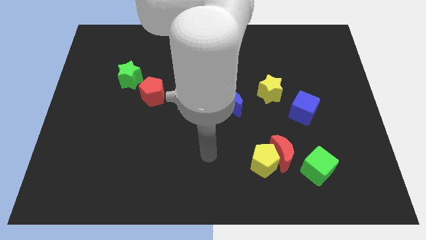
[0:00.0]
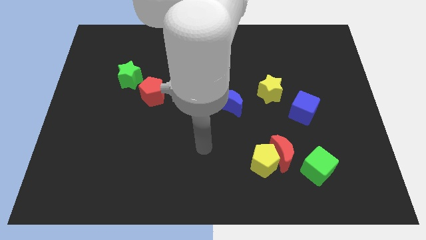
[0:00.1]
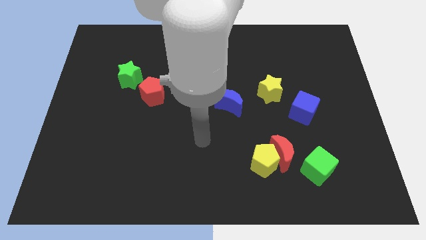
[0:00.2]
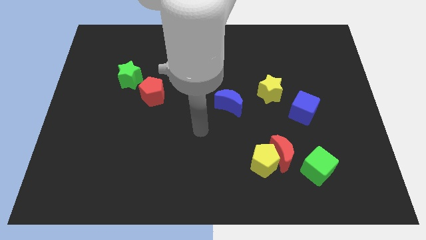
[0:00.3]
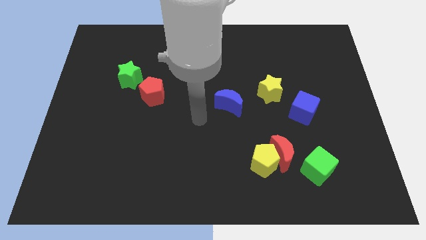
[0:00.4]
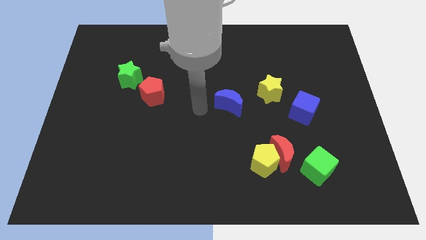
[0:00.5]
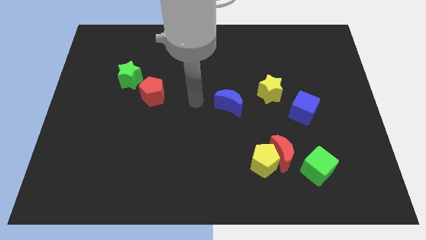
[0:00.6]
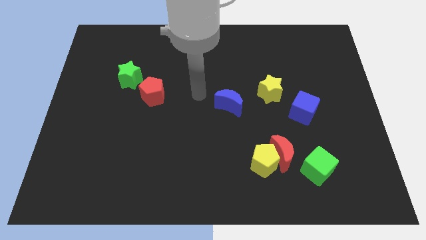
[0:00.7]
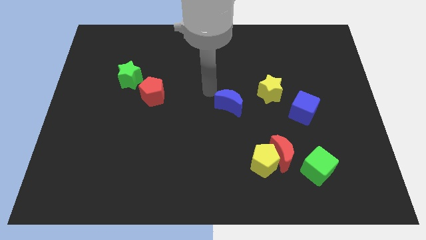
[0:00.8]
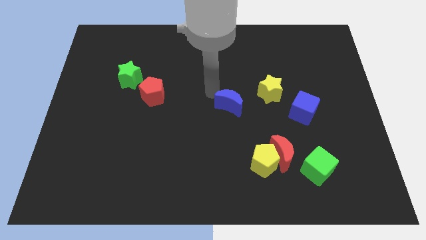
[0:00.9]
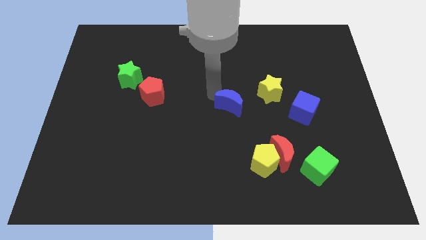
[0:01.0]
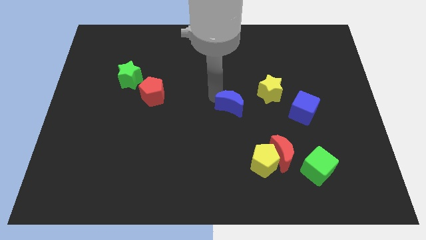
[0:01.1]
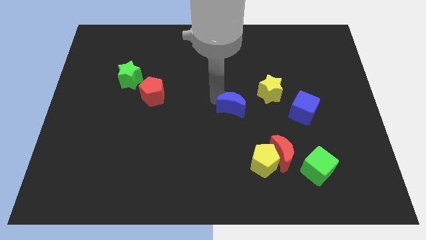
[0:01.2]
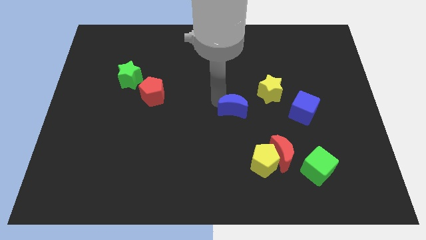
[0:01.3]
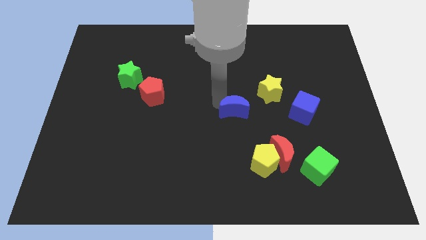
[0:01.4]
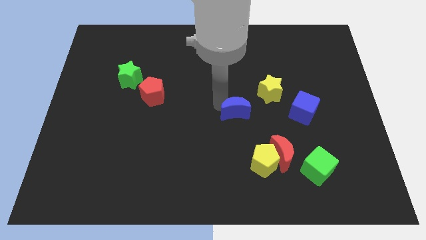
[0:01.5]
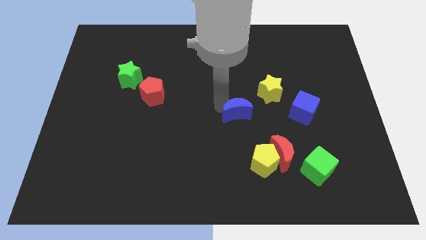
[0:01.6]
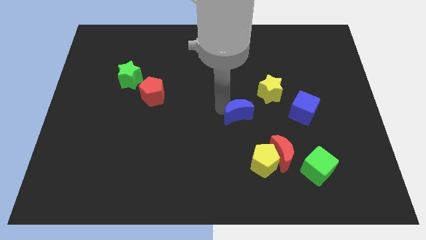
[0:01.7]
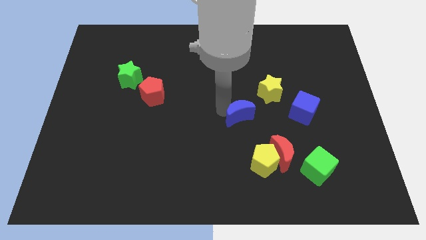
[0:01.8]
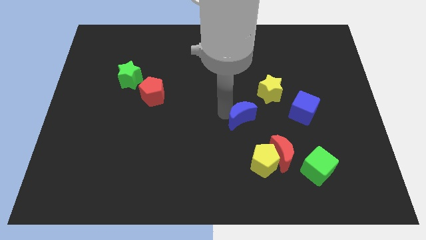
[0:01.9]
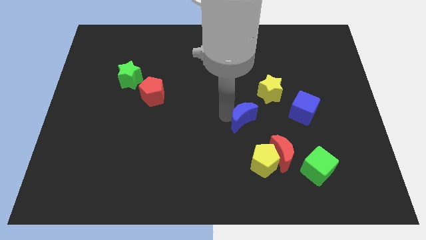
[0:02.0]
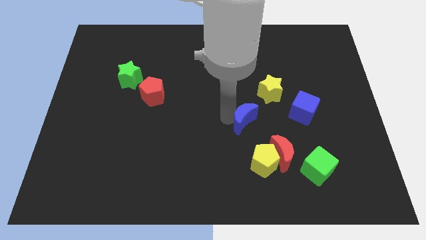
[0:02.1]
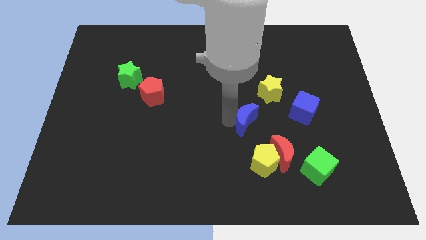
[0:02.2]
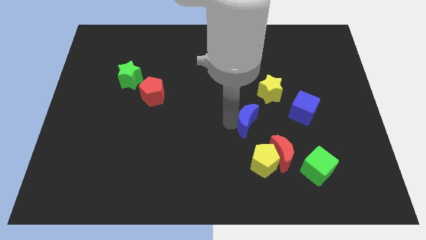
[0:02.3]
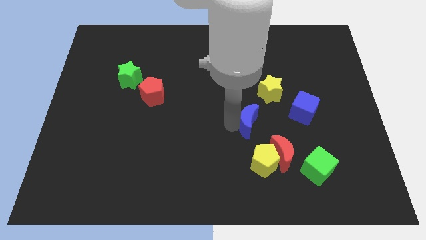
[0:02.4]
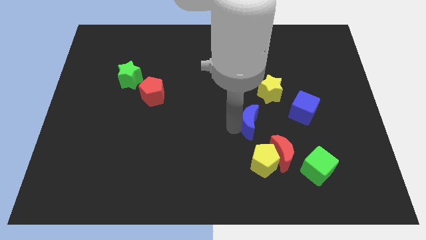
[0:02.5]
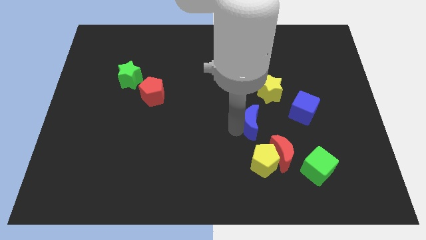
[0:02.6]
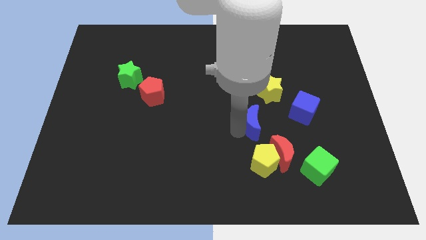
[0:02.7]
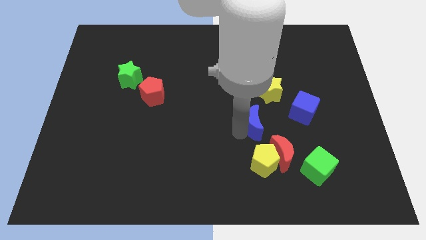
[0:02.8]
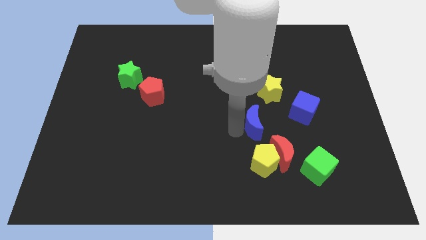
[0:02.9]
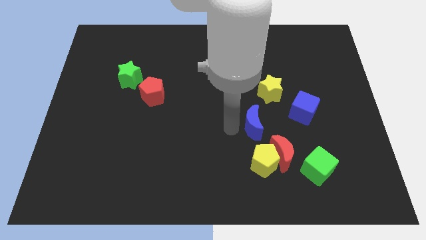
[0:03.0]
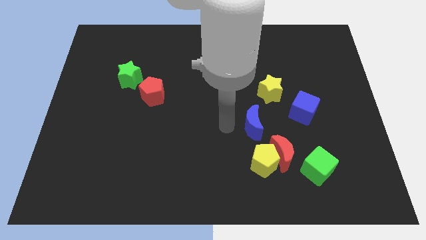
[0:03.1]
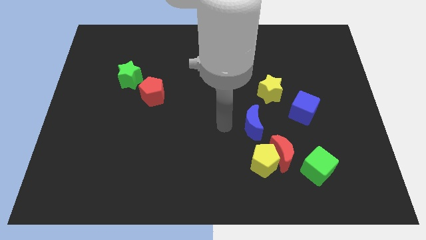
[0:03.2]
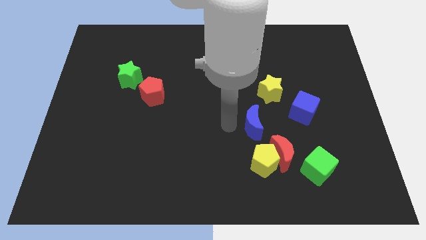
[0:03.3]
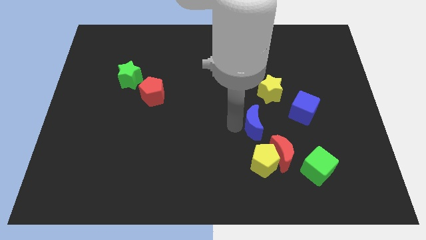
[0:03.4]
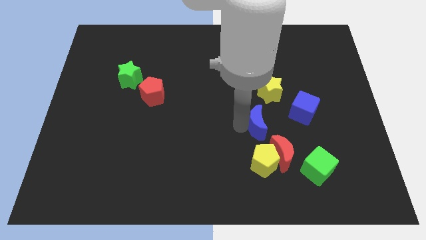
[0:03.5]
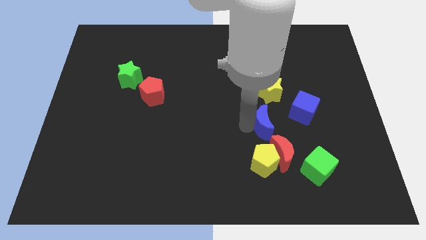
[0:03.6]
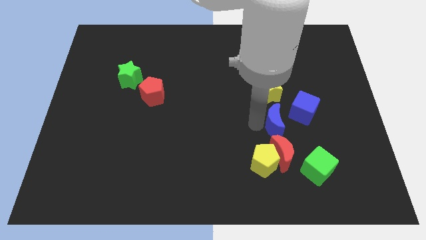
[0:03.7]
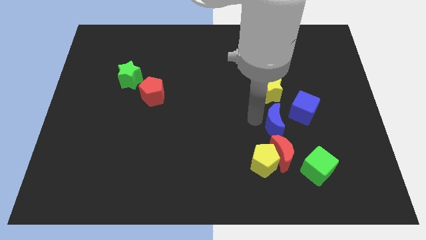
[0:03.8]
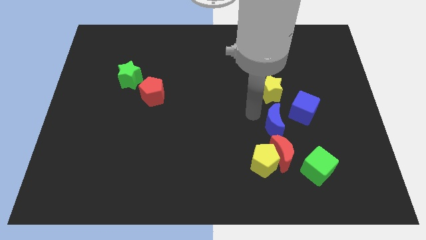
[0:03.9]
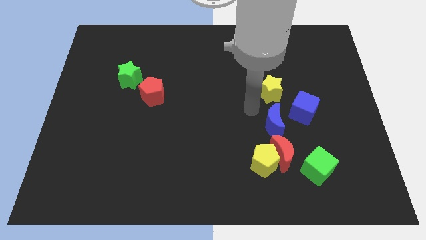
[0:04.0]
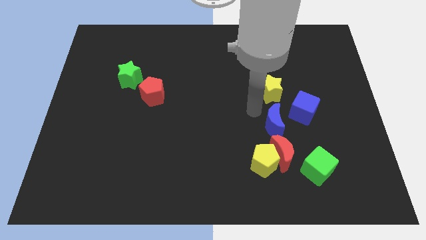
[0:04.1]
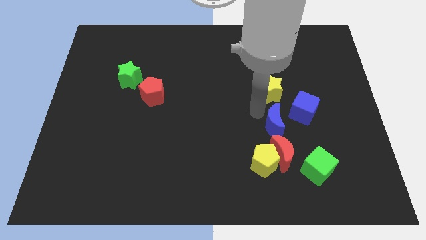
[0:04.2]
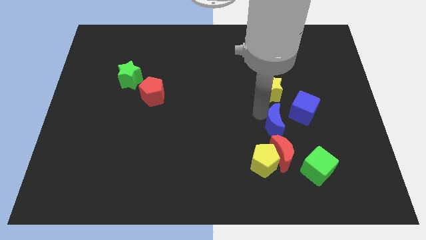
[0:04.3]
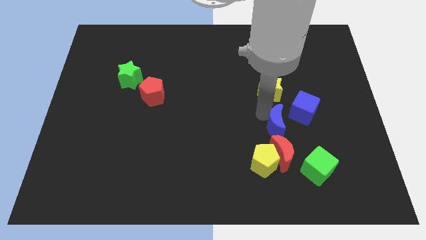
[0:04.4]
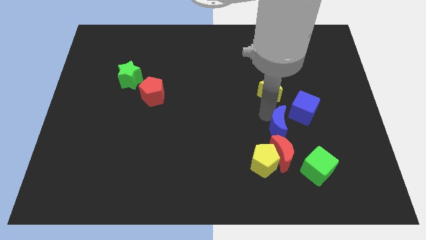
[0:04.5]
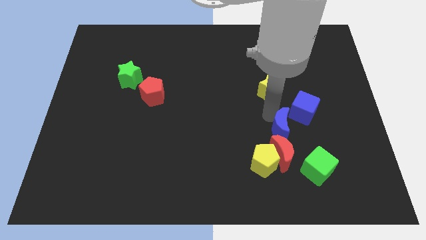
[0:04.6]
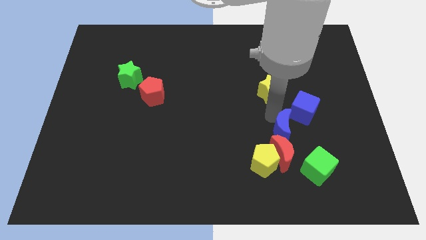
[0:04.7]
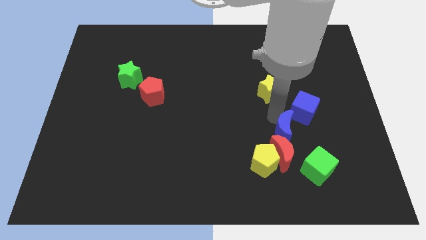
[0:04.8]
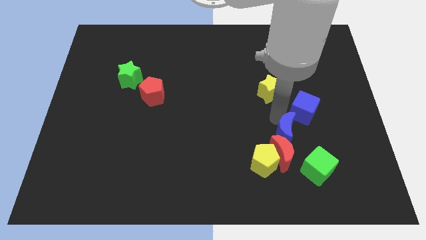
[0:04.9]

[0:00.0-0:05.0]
put the blue moon to the bottom of the blue cube

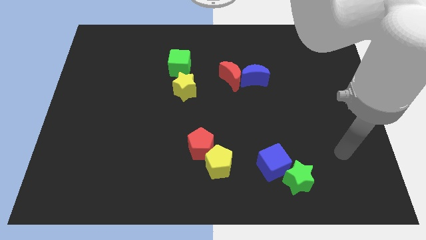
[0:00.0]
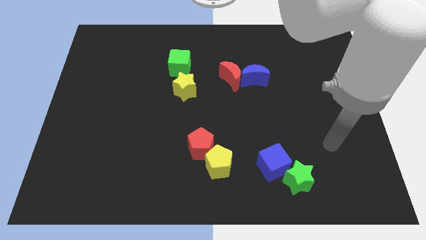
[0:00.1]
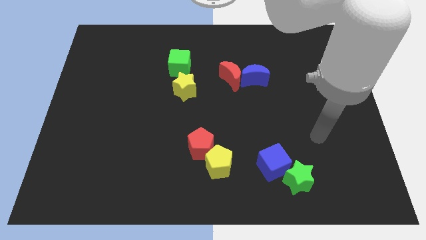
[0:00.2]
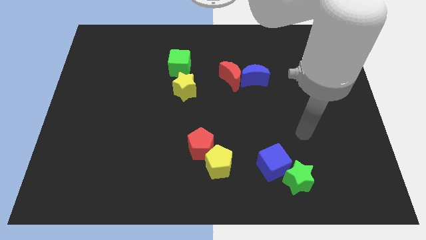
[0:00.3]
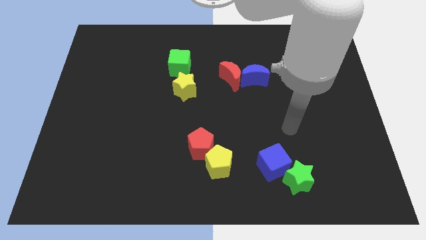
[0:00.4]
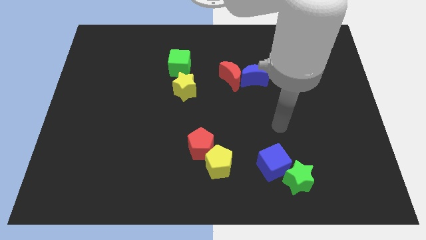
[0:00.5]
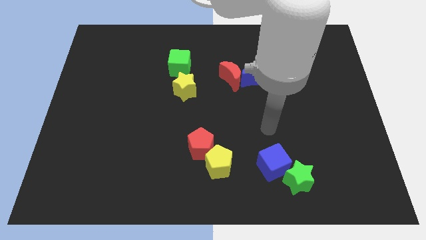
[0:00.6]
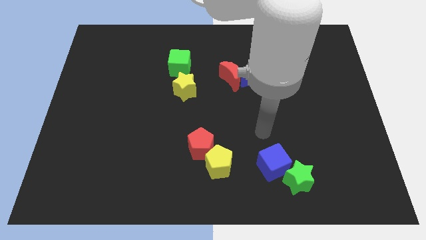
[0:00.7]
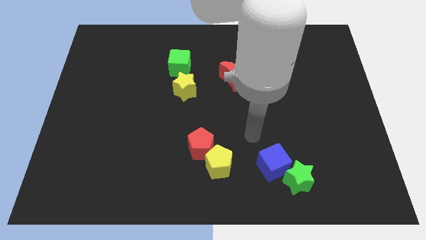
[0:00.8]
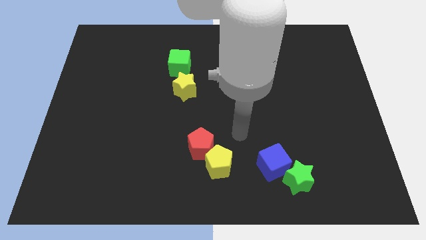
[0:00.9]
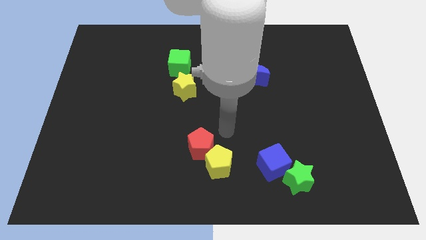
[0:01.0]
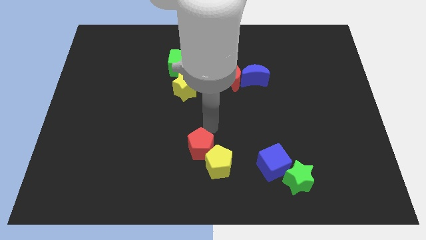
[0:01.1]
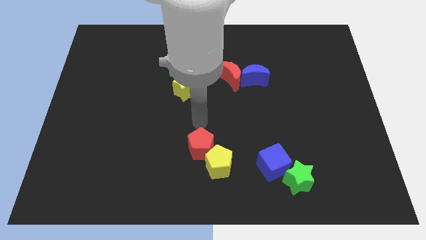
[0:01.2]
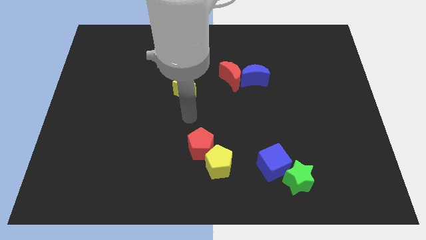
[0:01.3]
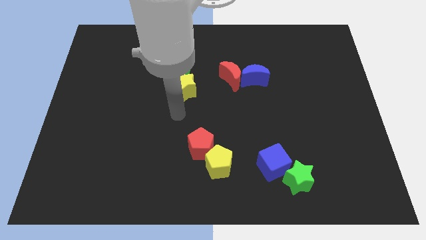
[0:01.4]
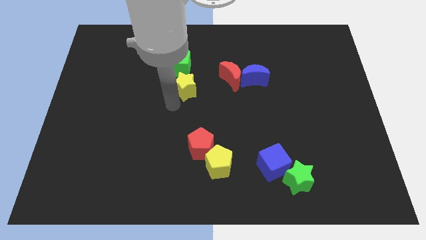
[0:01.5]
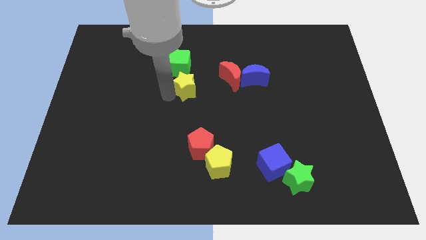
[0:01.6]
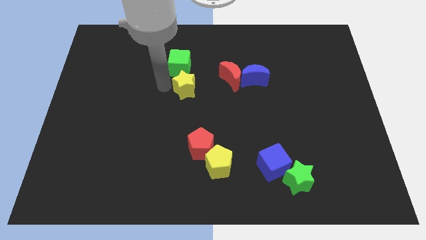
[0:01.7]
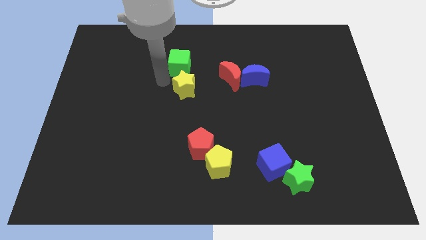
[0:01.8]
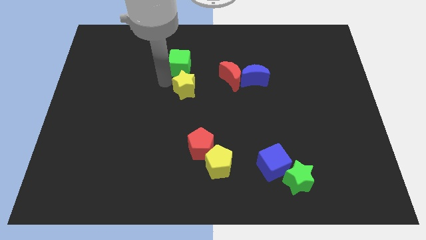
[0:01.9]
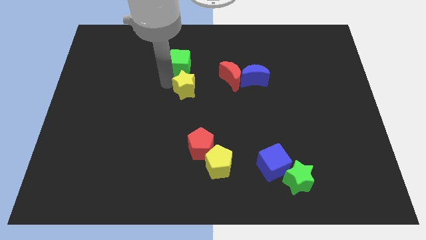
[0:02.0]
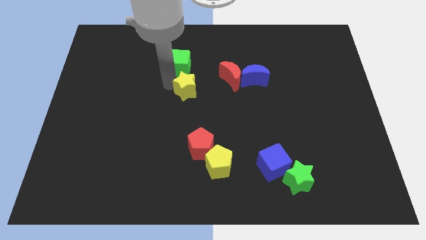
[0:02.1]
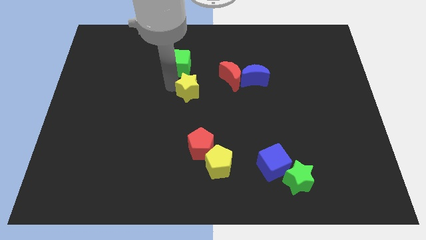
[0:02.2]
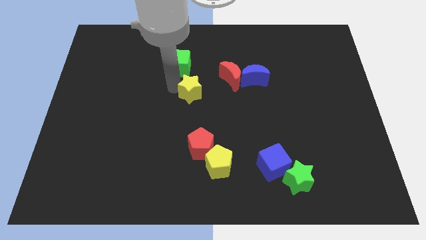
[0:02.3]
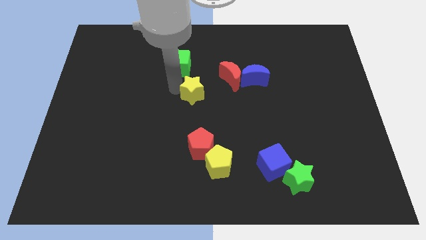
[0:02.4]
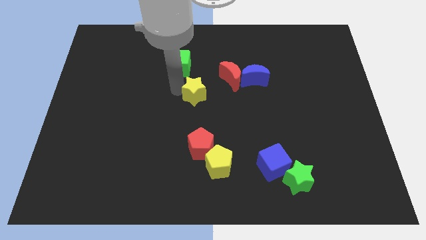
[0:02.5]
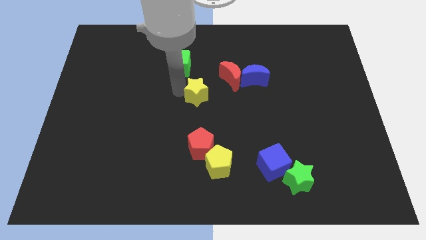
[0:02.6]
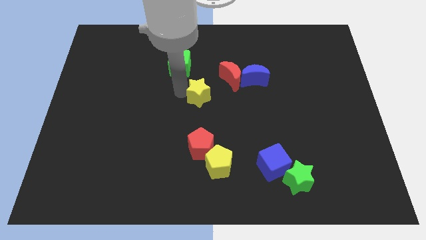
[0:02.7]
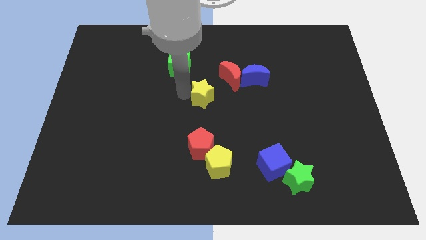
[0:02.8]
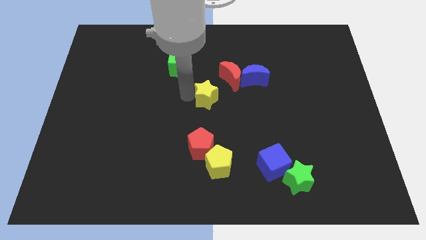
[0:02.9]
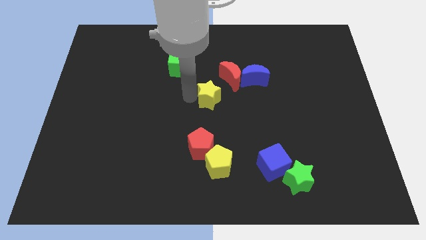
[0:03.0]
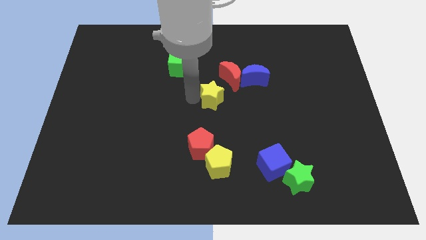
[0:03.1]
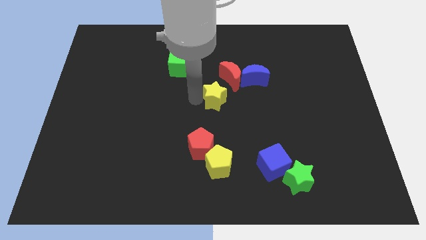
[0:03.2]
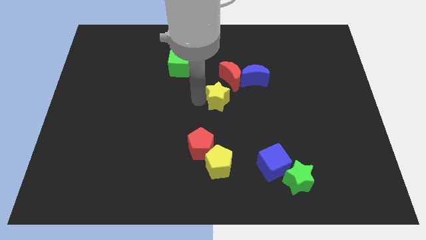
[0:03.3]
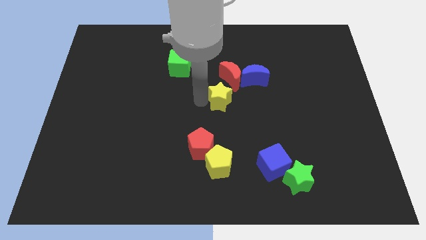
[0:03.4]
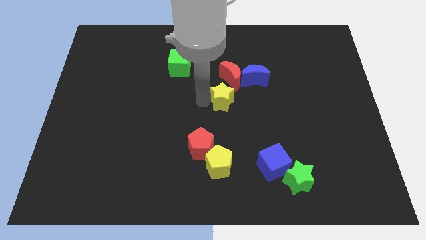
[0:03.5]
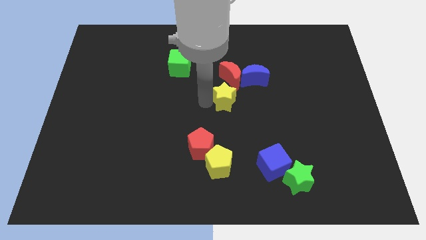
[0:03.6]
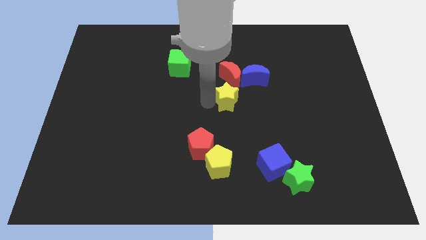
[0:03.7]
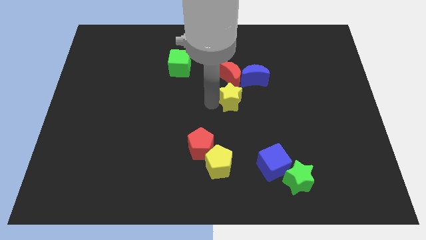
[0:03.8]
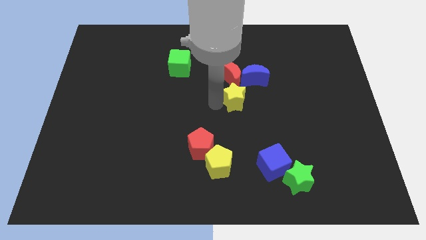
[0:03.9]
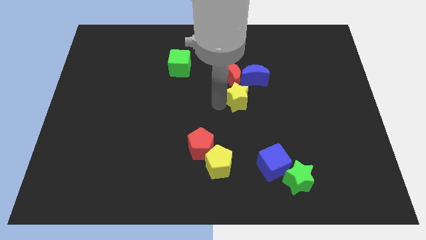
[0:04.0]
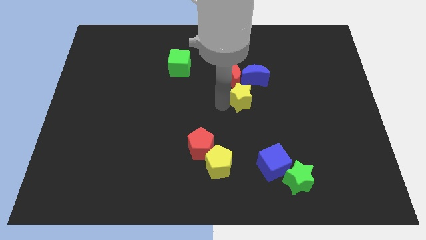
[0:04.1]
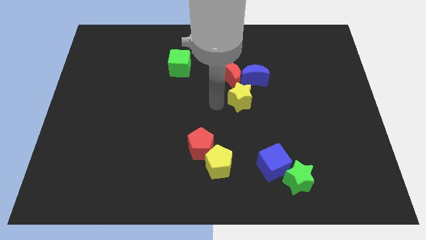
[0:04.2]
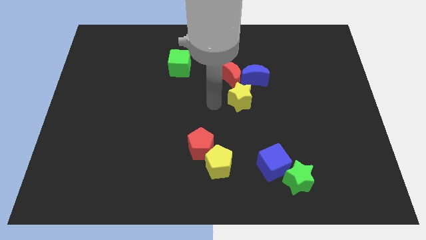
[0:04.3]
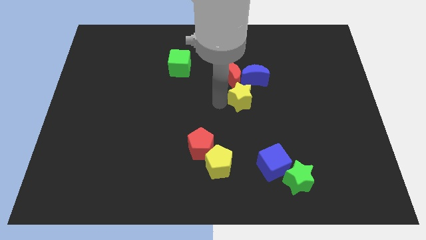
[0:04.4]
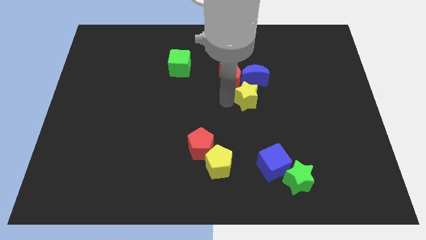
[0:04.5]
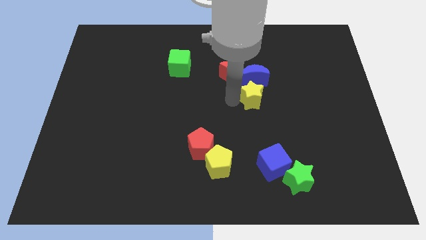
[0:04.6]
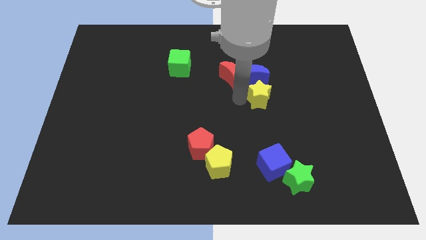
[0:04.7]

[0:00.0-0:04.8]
move the yellow star to the bottom right of the blue moon
